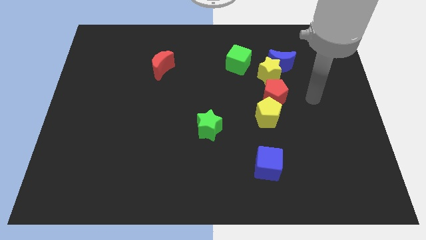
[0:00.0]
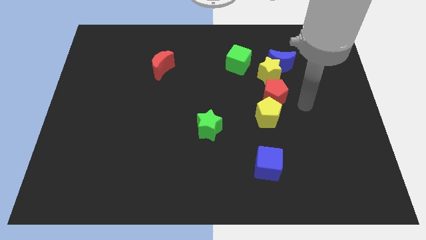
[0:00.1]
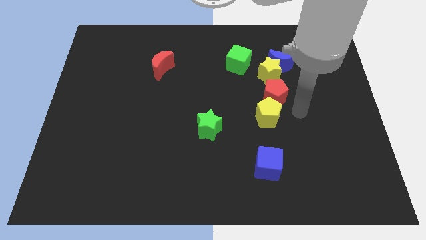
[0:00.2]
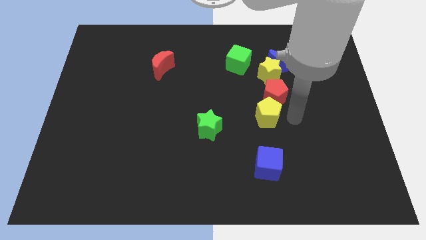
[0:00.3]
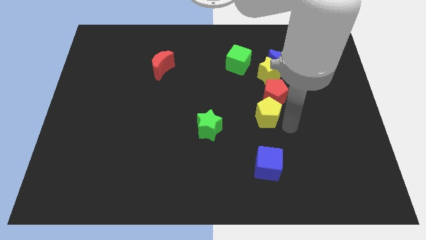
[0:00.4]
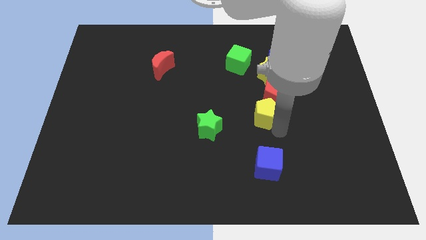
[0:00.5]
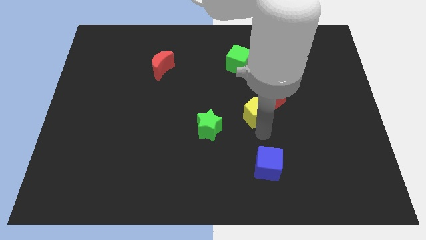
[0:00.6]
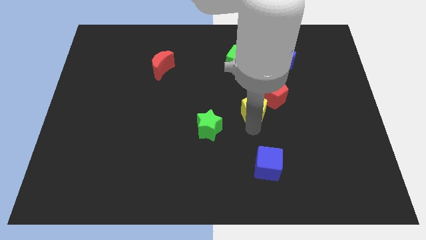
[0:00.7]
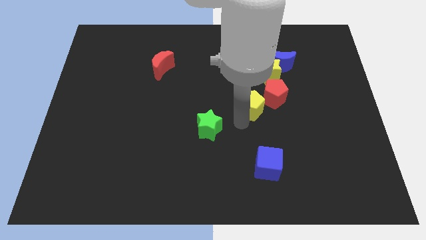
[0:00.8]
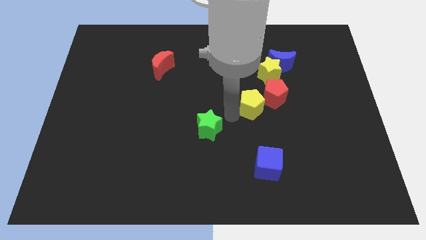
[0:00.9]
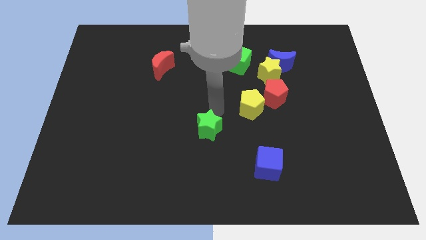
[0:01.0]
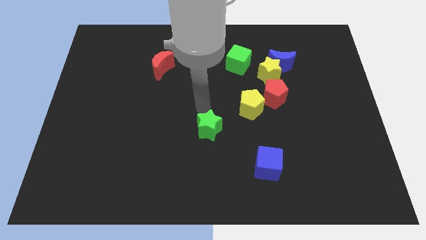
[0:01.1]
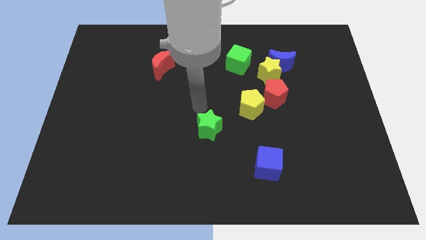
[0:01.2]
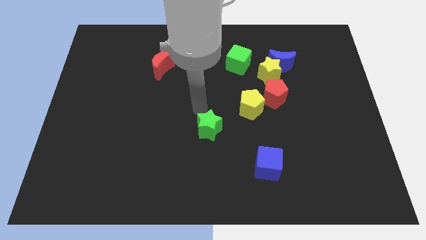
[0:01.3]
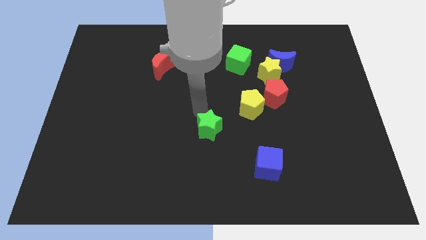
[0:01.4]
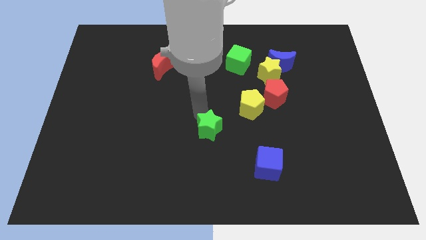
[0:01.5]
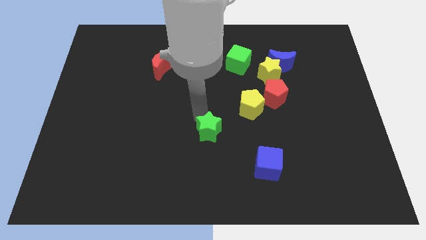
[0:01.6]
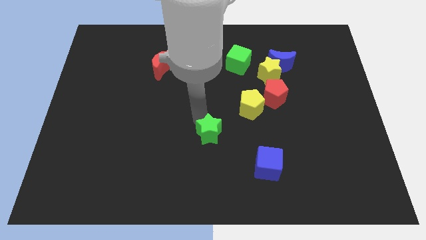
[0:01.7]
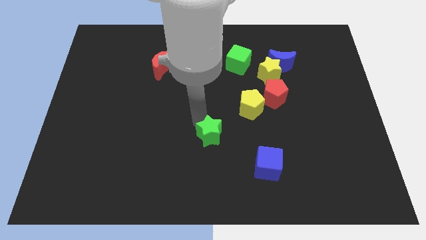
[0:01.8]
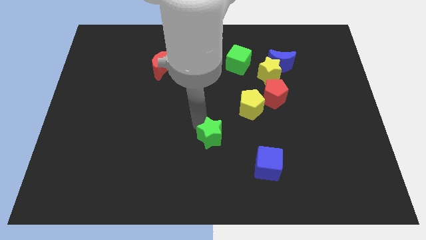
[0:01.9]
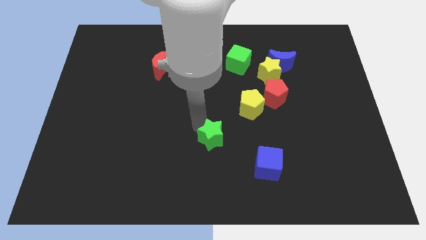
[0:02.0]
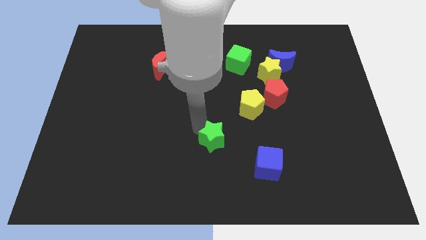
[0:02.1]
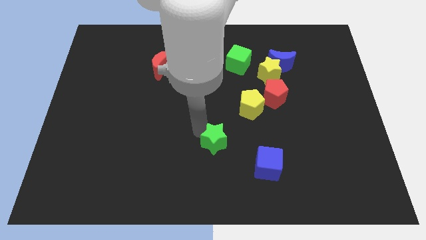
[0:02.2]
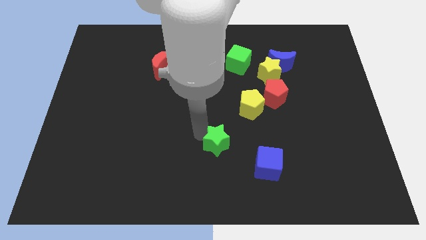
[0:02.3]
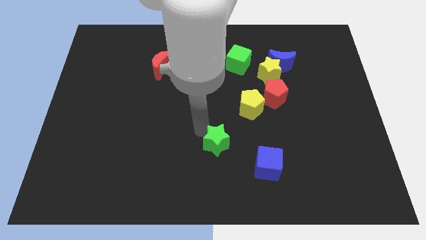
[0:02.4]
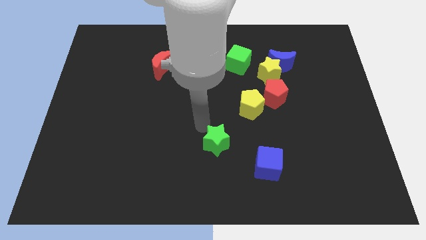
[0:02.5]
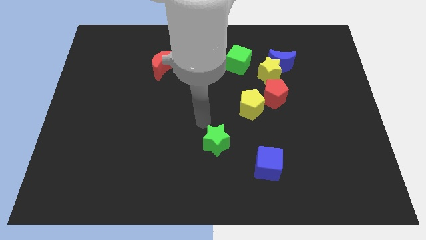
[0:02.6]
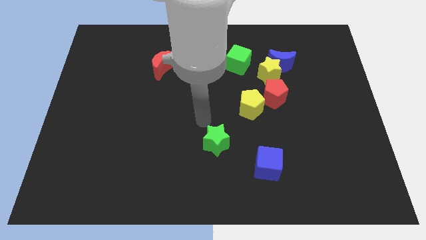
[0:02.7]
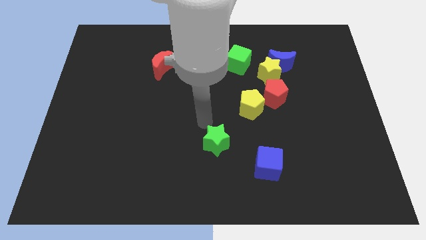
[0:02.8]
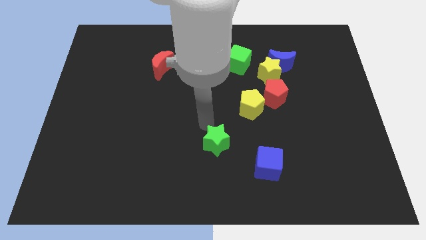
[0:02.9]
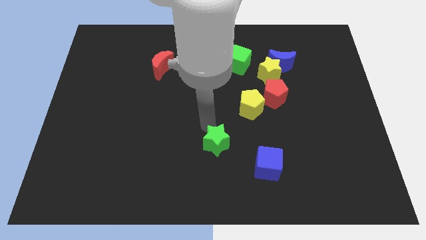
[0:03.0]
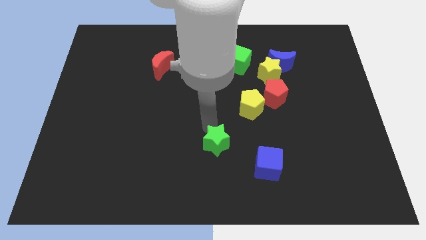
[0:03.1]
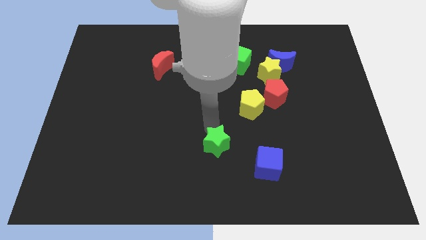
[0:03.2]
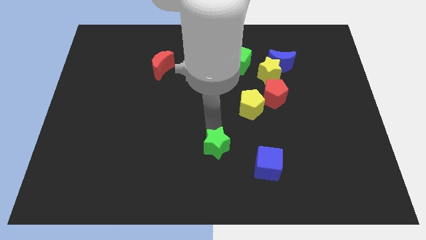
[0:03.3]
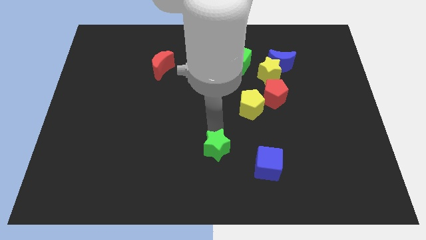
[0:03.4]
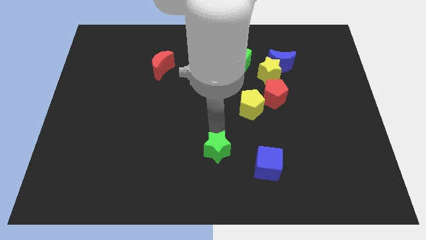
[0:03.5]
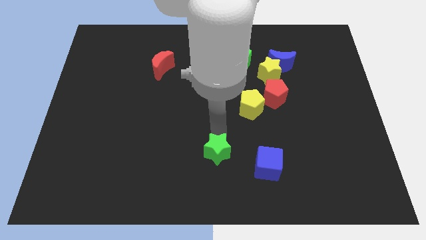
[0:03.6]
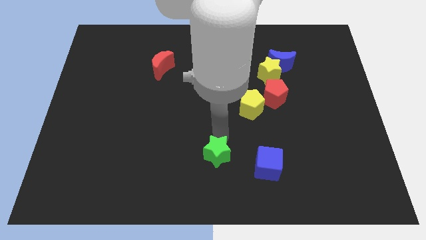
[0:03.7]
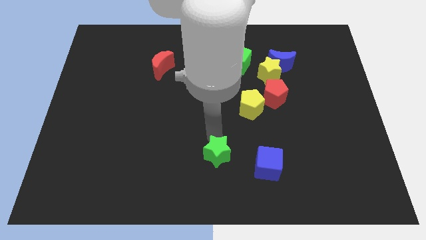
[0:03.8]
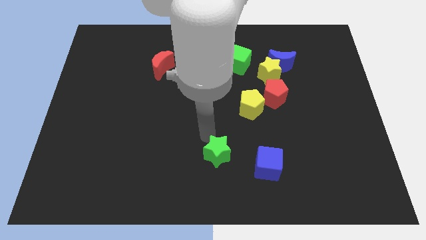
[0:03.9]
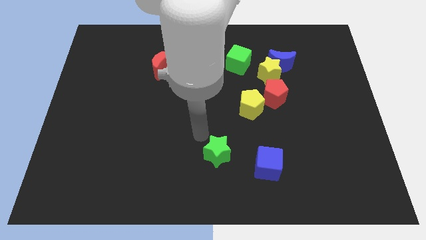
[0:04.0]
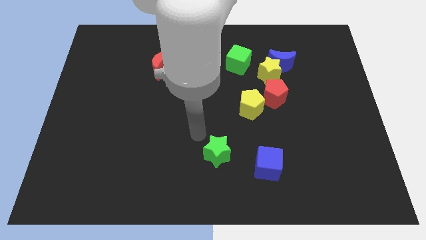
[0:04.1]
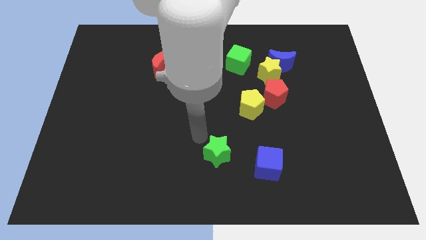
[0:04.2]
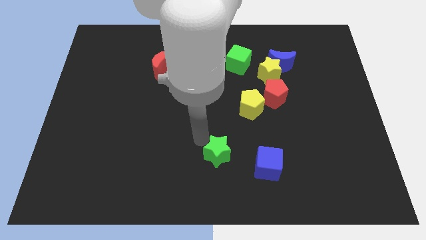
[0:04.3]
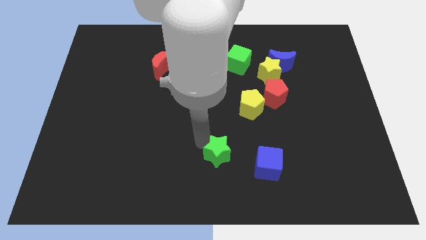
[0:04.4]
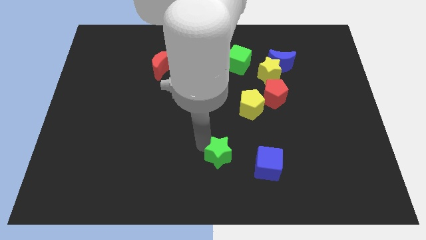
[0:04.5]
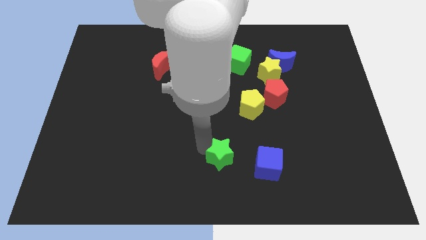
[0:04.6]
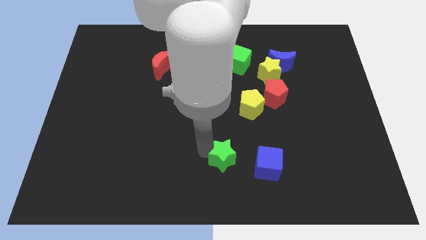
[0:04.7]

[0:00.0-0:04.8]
slide the green star downwards and right diagonally slightly

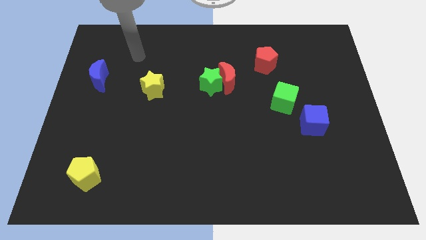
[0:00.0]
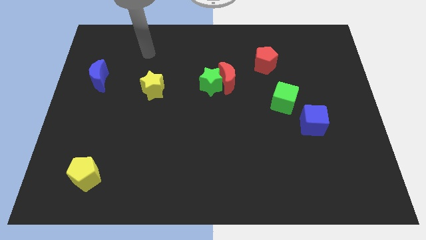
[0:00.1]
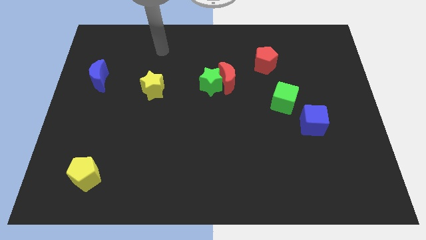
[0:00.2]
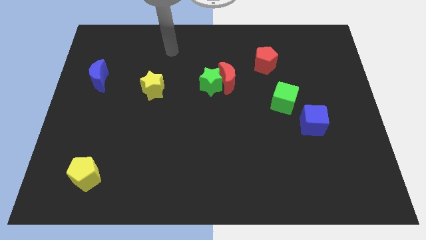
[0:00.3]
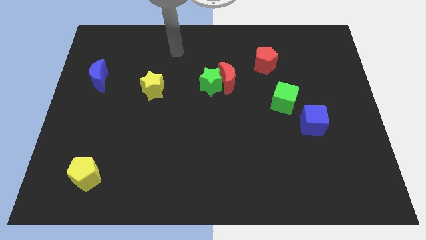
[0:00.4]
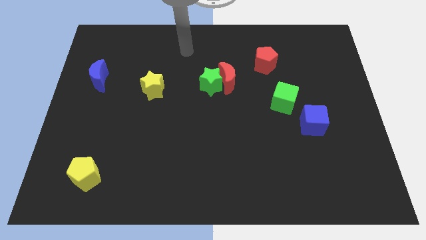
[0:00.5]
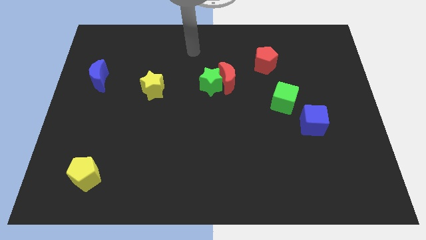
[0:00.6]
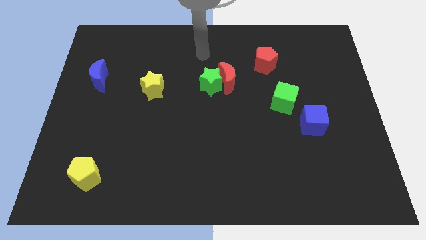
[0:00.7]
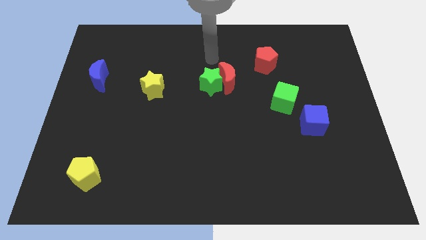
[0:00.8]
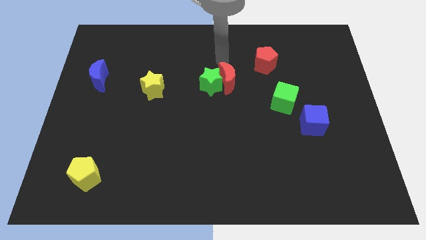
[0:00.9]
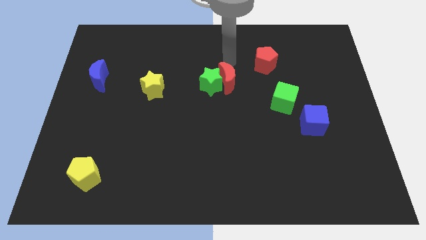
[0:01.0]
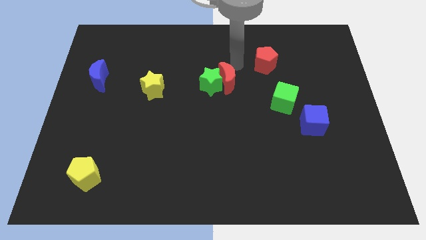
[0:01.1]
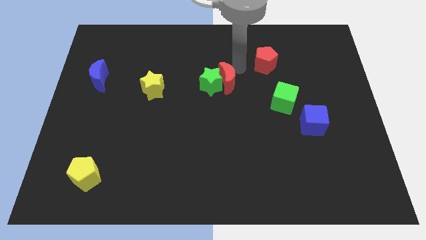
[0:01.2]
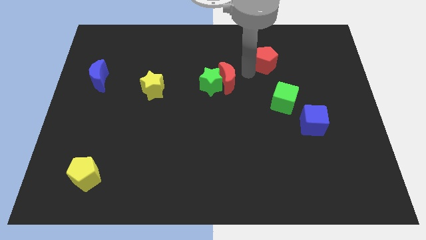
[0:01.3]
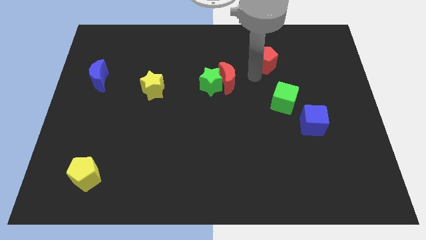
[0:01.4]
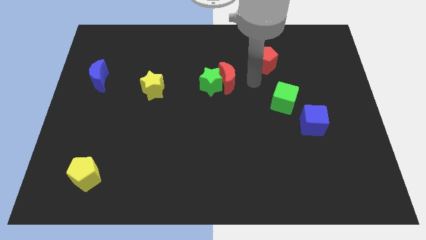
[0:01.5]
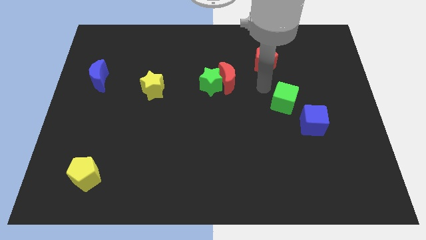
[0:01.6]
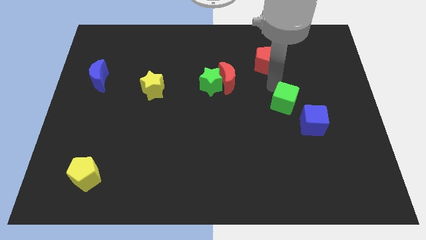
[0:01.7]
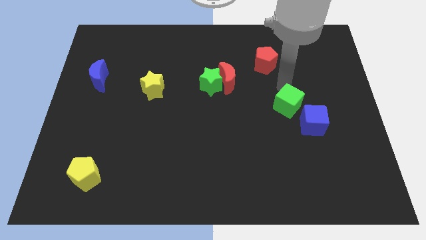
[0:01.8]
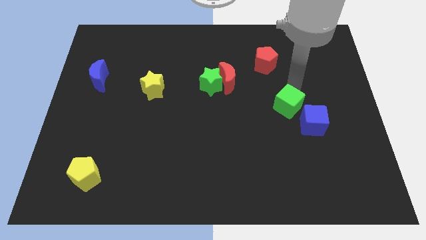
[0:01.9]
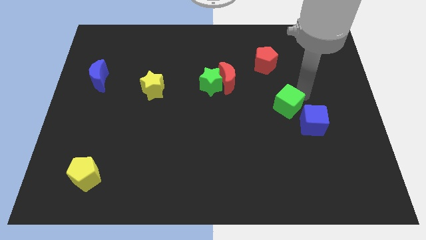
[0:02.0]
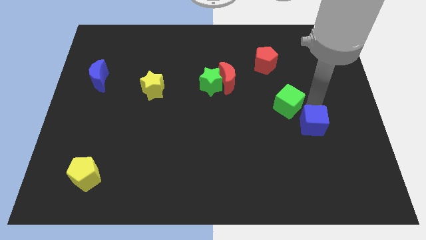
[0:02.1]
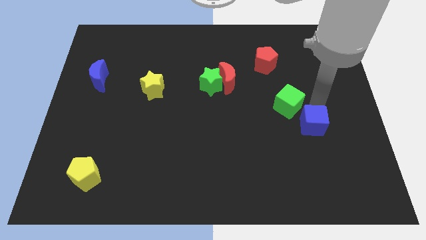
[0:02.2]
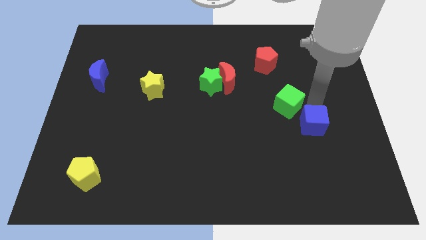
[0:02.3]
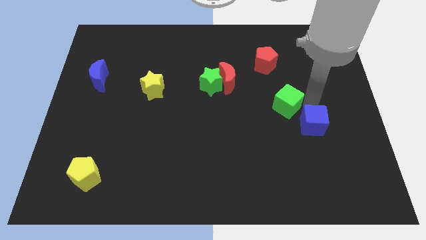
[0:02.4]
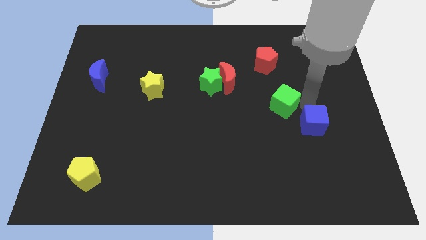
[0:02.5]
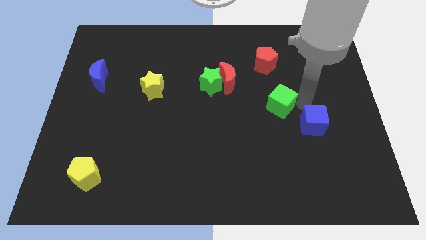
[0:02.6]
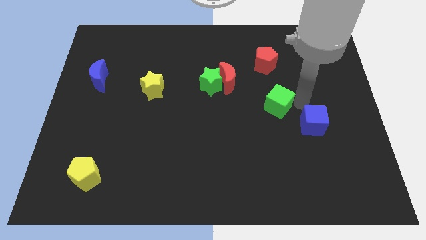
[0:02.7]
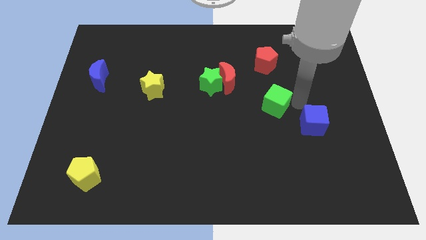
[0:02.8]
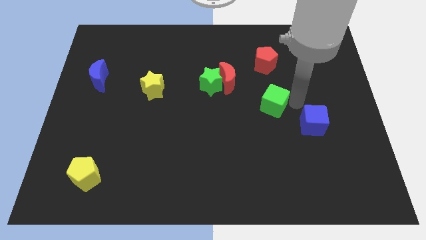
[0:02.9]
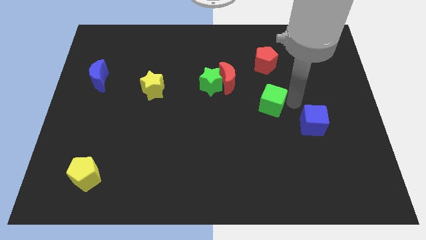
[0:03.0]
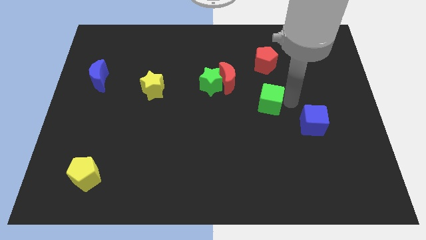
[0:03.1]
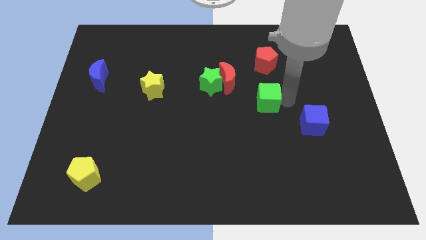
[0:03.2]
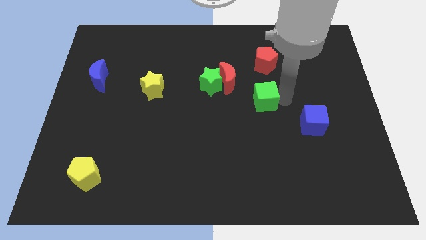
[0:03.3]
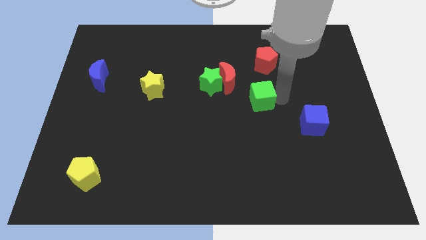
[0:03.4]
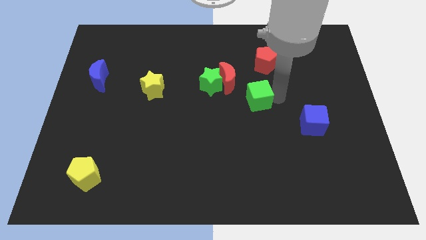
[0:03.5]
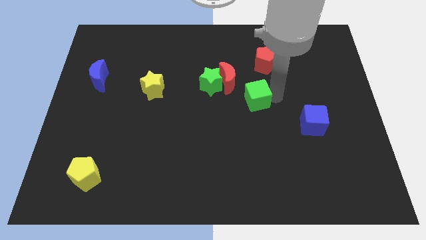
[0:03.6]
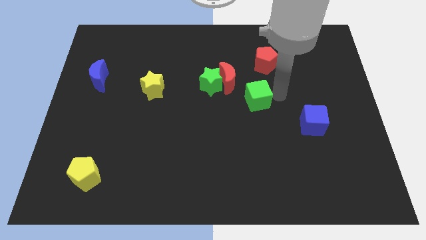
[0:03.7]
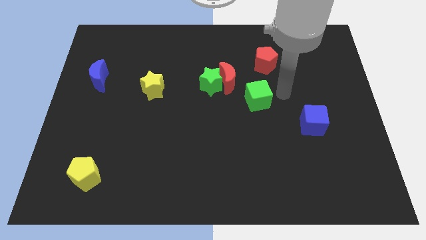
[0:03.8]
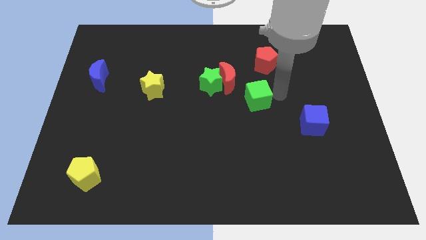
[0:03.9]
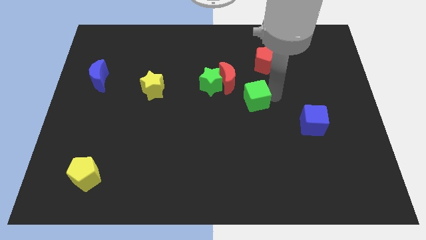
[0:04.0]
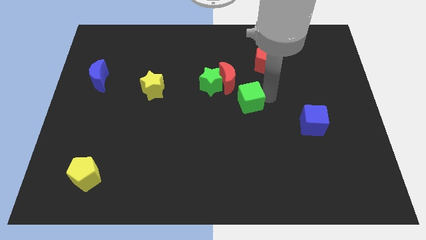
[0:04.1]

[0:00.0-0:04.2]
slightly slide the green cube left
